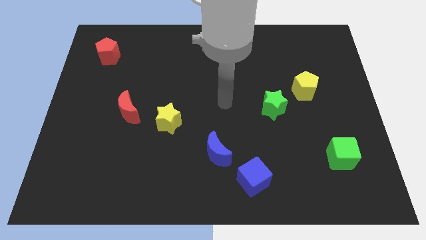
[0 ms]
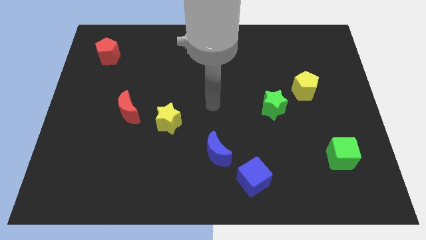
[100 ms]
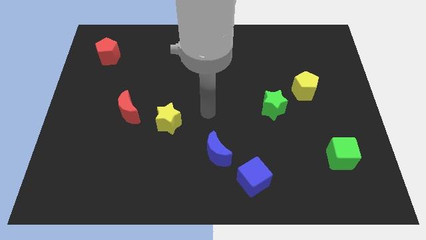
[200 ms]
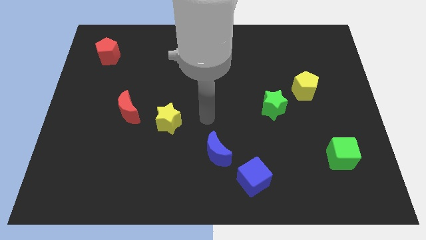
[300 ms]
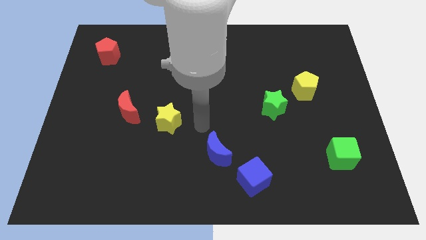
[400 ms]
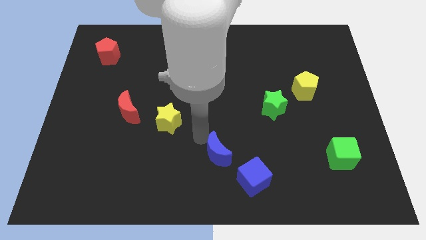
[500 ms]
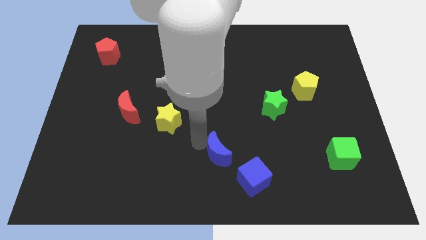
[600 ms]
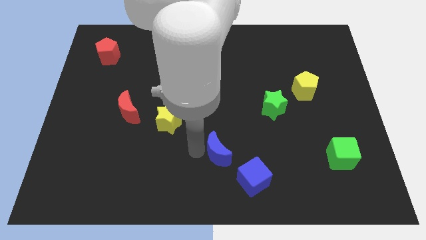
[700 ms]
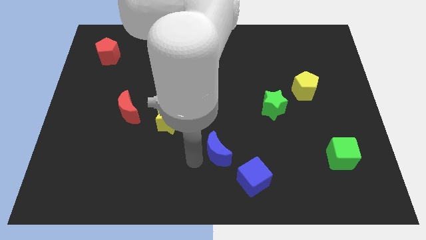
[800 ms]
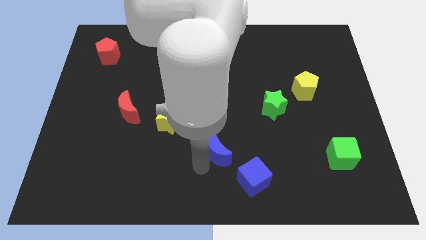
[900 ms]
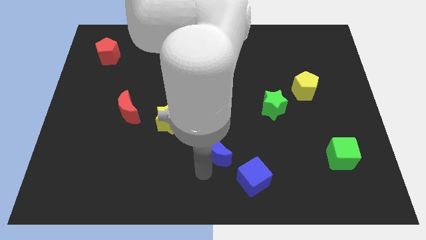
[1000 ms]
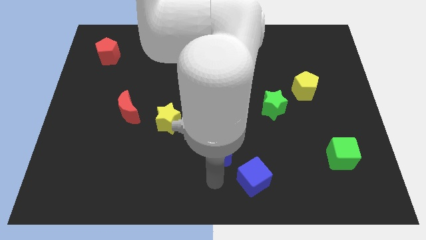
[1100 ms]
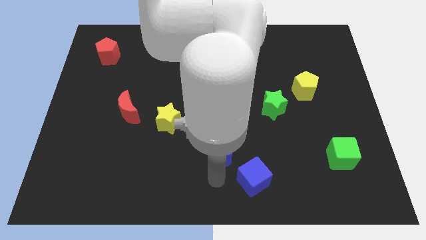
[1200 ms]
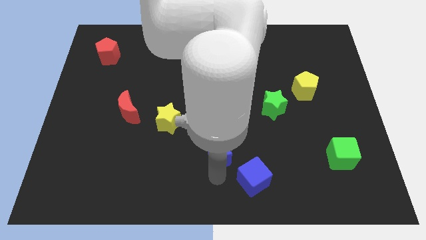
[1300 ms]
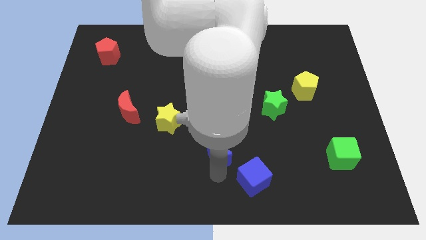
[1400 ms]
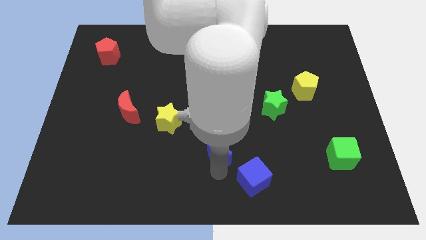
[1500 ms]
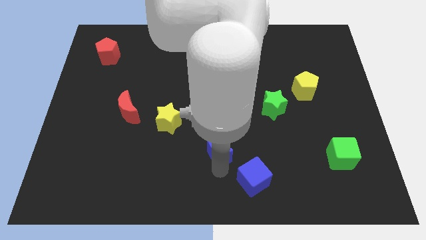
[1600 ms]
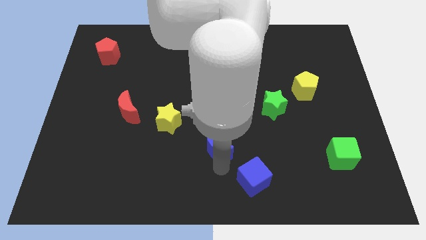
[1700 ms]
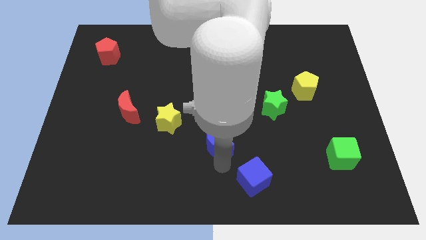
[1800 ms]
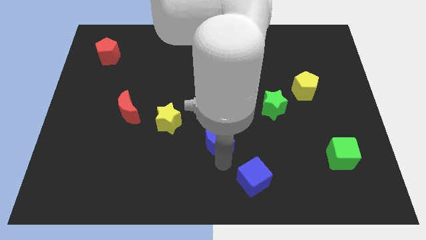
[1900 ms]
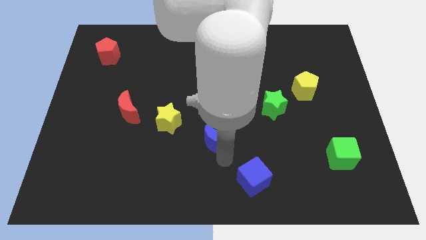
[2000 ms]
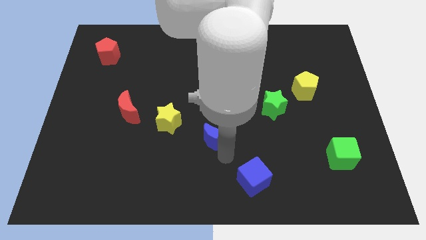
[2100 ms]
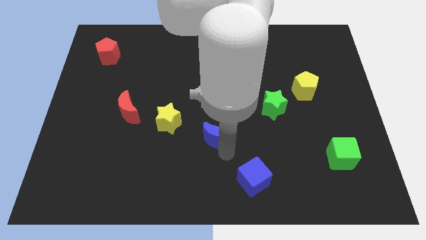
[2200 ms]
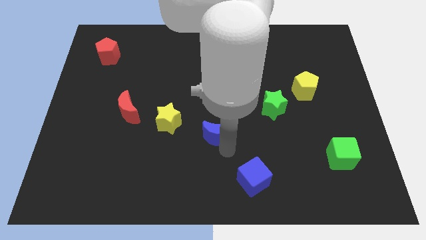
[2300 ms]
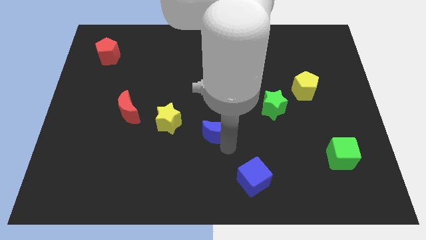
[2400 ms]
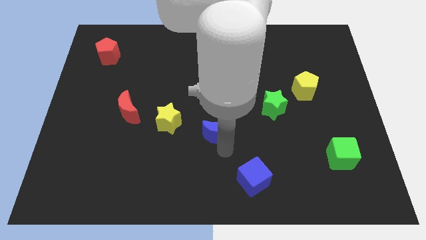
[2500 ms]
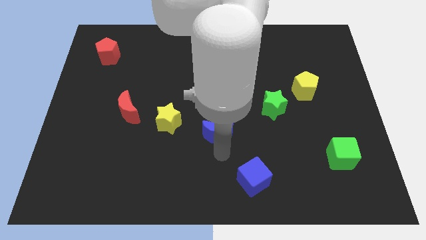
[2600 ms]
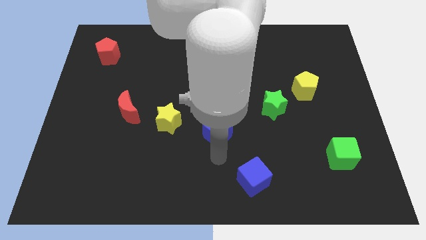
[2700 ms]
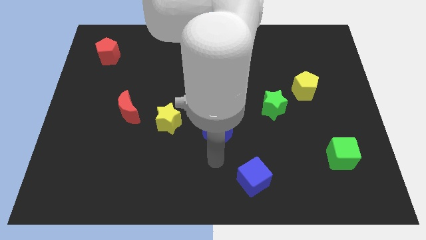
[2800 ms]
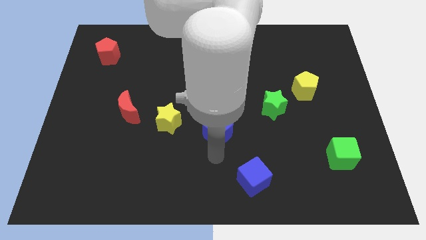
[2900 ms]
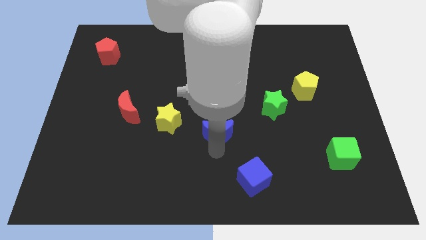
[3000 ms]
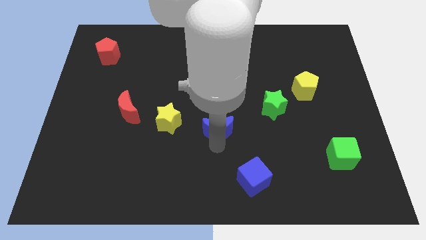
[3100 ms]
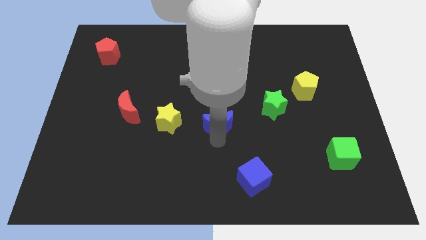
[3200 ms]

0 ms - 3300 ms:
move the blue moon a little up

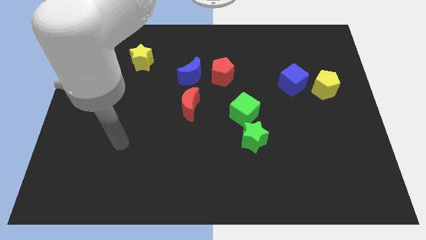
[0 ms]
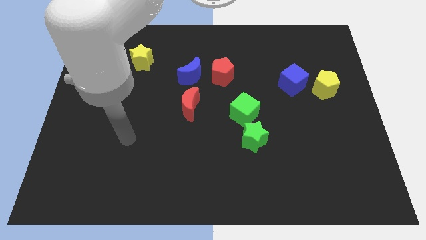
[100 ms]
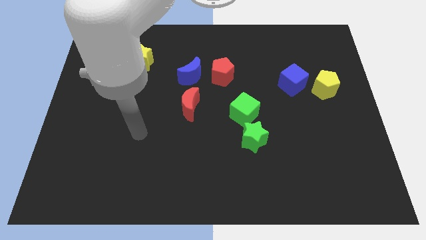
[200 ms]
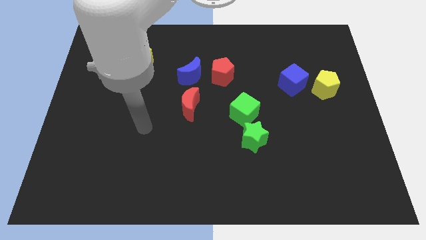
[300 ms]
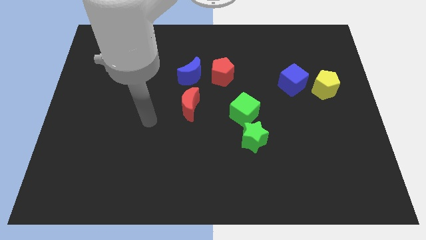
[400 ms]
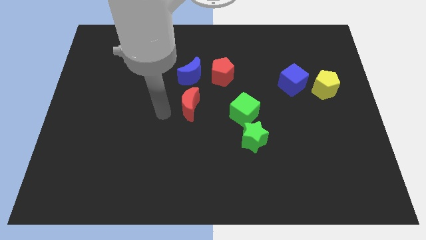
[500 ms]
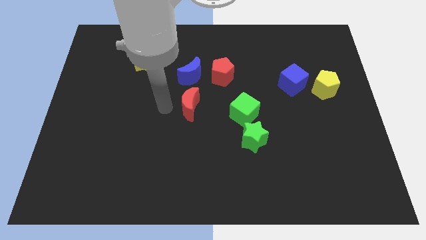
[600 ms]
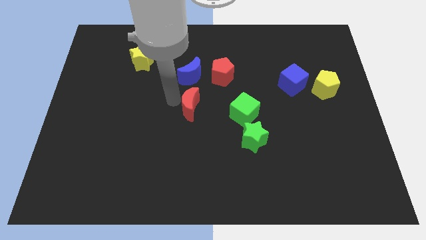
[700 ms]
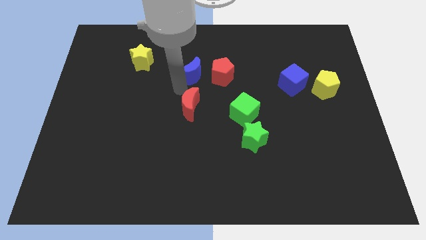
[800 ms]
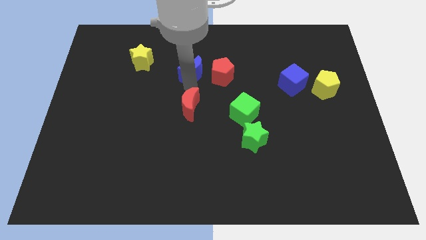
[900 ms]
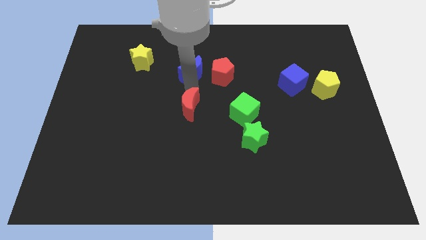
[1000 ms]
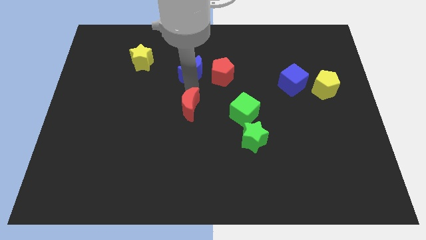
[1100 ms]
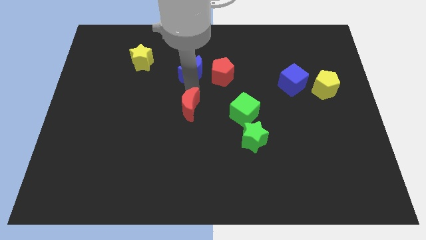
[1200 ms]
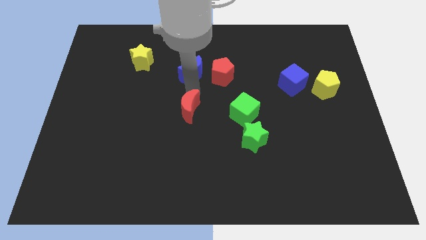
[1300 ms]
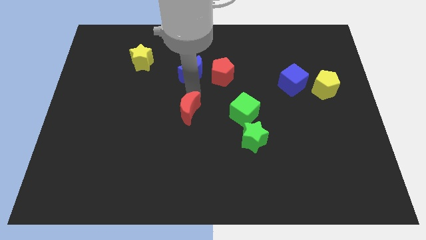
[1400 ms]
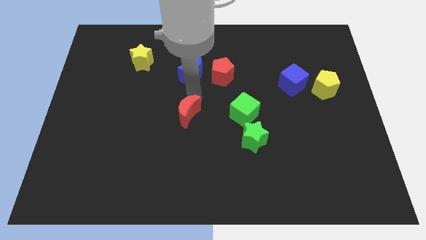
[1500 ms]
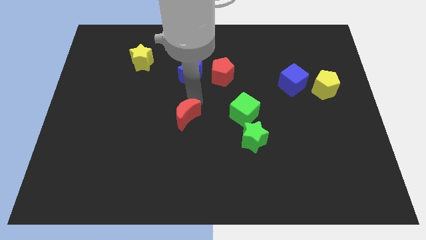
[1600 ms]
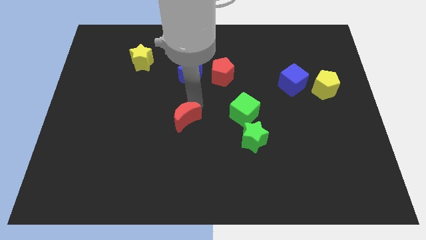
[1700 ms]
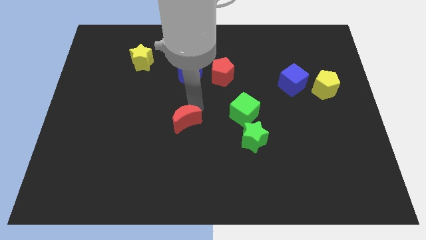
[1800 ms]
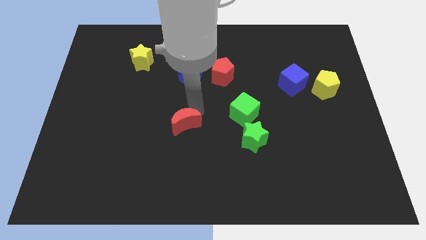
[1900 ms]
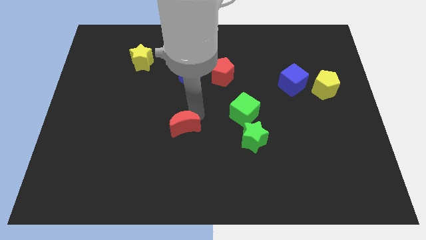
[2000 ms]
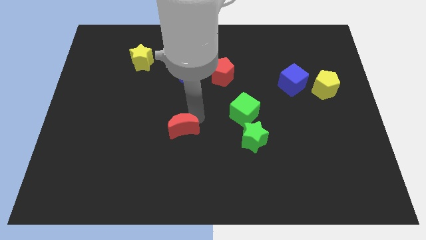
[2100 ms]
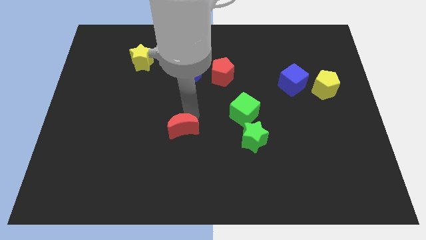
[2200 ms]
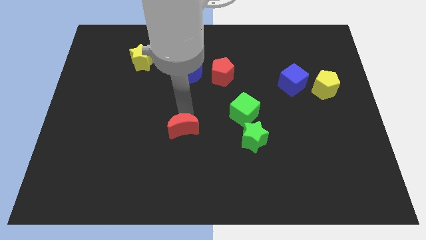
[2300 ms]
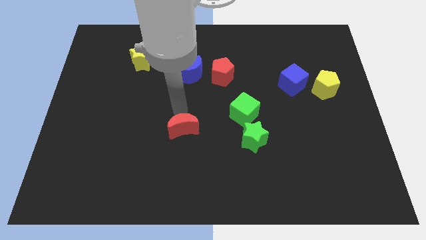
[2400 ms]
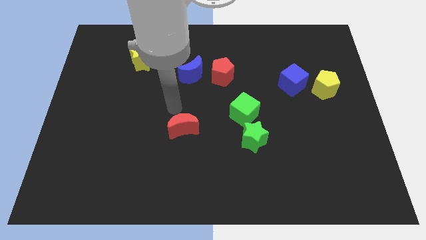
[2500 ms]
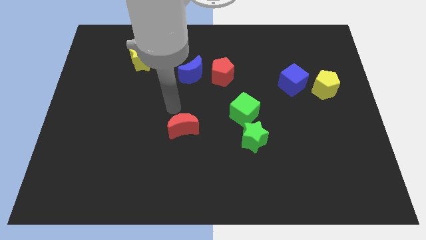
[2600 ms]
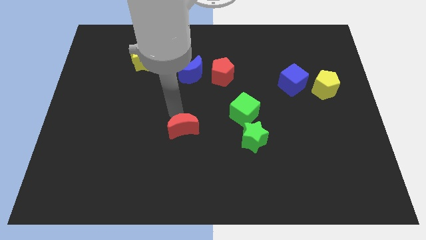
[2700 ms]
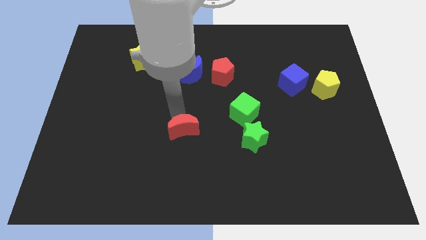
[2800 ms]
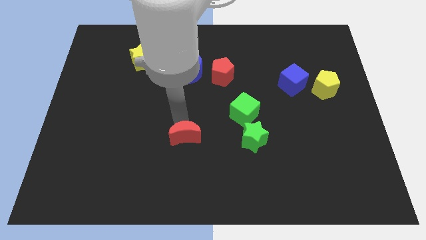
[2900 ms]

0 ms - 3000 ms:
move the red moon somewhat downwards

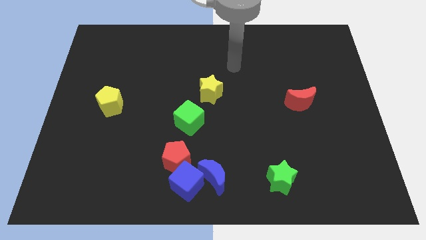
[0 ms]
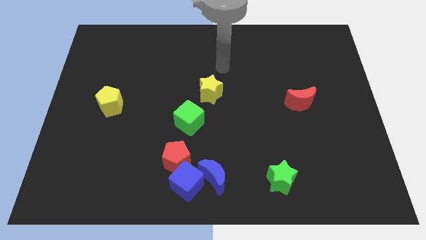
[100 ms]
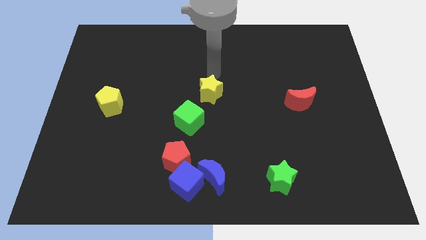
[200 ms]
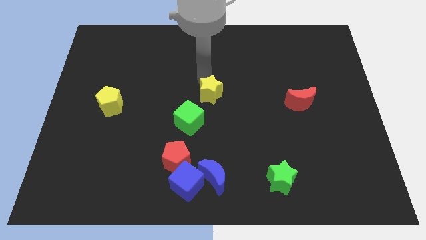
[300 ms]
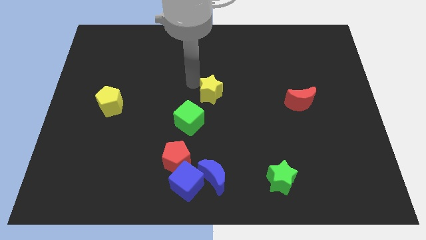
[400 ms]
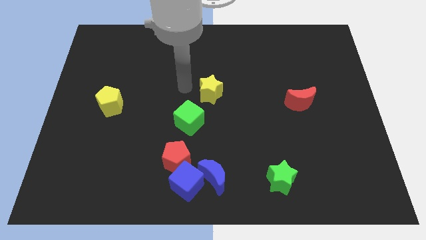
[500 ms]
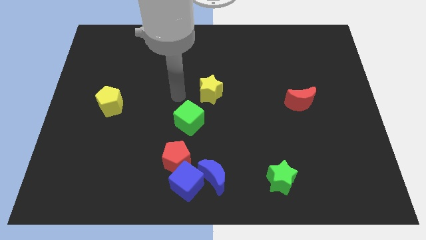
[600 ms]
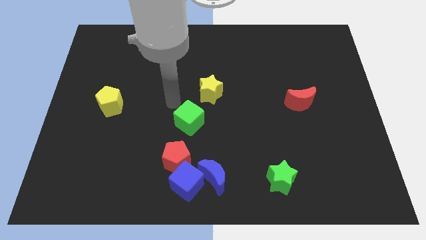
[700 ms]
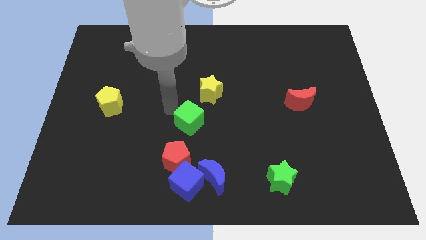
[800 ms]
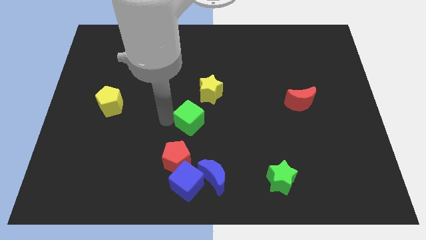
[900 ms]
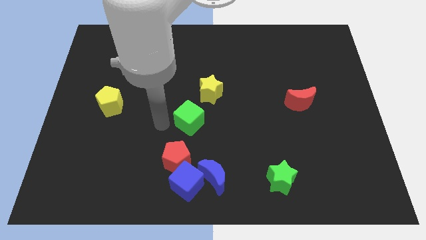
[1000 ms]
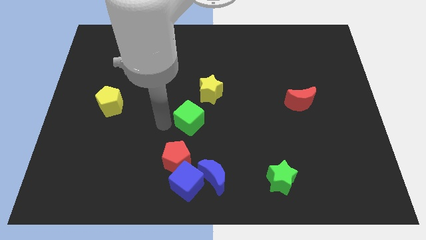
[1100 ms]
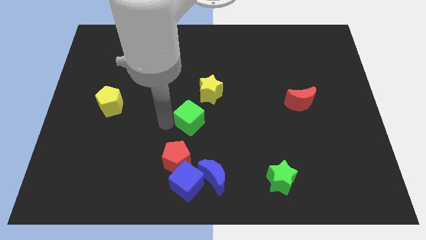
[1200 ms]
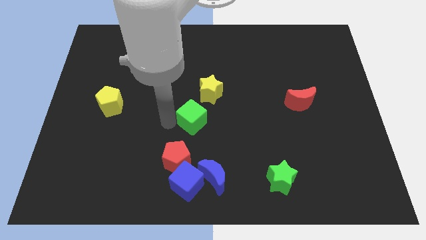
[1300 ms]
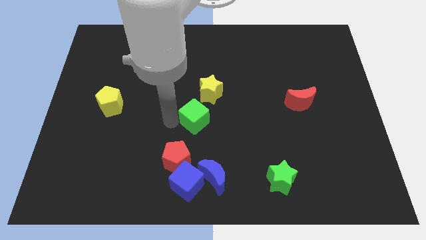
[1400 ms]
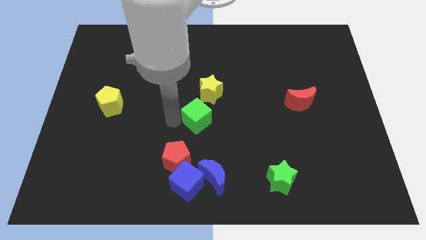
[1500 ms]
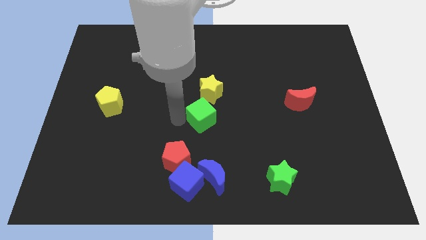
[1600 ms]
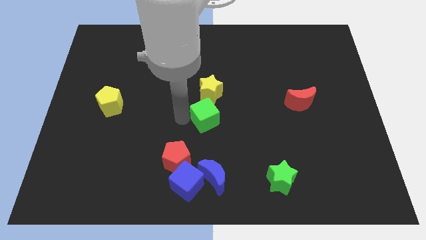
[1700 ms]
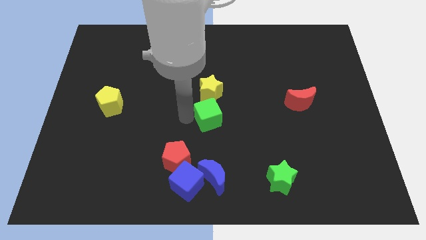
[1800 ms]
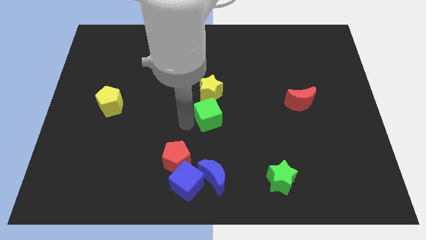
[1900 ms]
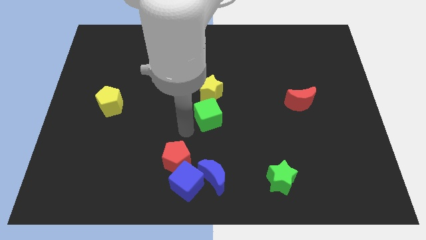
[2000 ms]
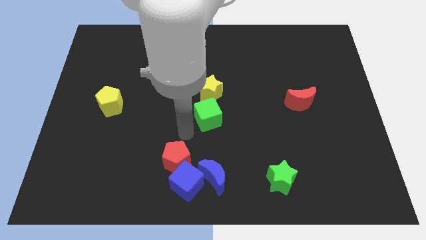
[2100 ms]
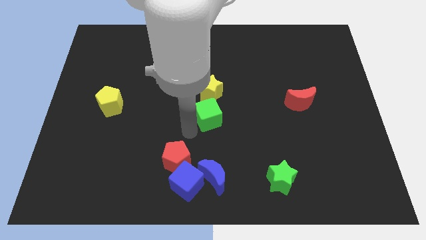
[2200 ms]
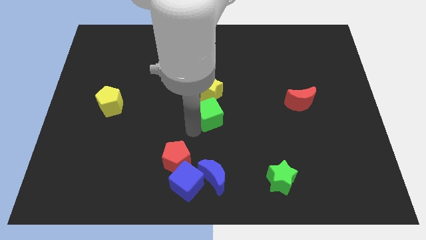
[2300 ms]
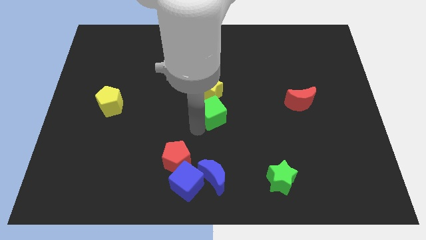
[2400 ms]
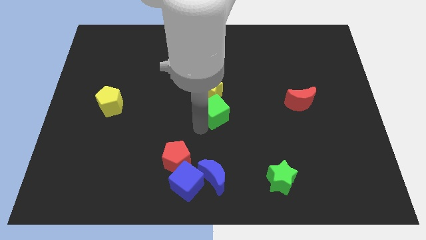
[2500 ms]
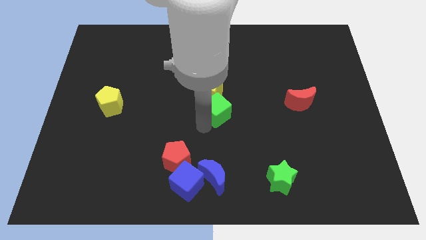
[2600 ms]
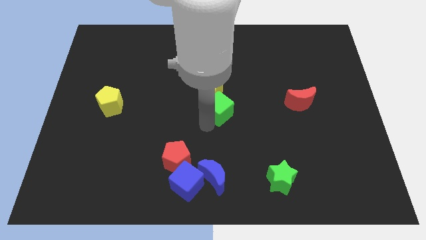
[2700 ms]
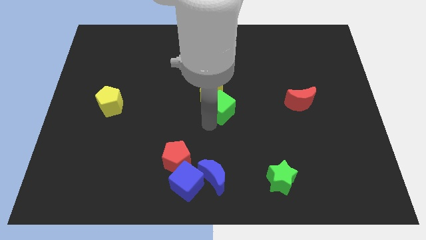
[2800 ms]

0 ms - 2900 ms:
slide the green cube diagonally up and to the right a little
